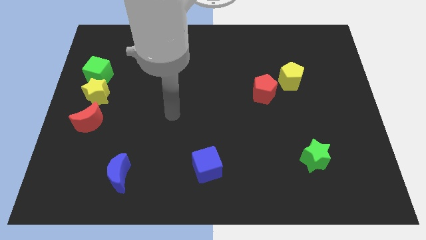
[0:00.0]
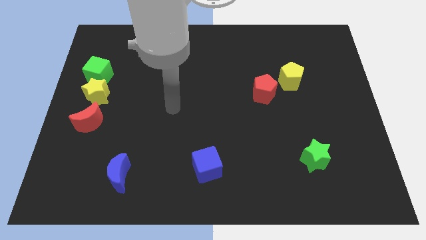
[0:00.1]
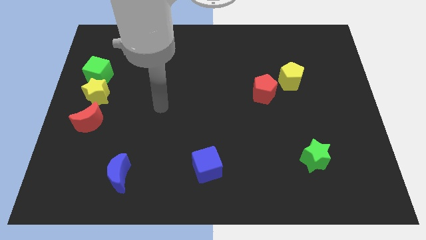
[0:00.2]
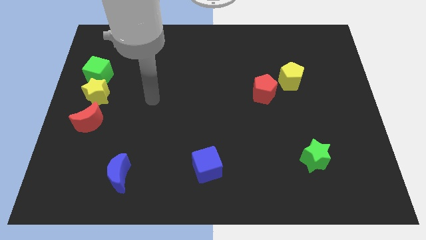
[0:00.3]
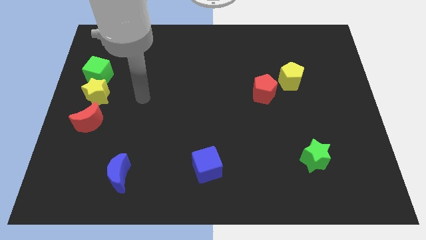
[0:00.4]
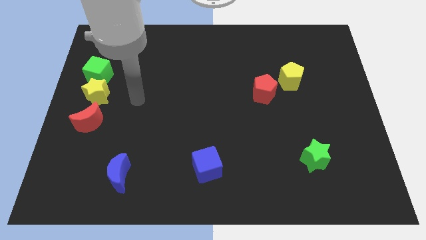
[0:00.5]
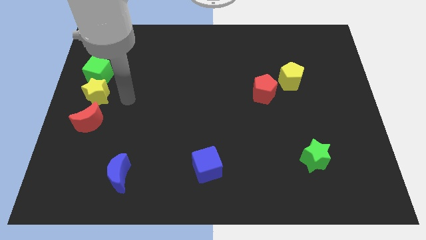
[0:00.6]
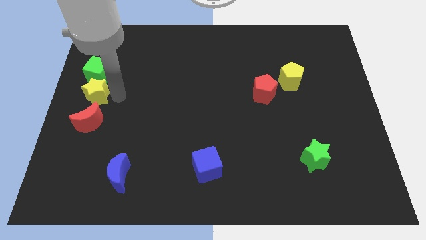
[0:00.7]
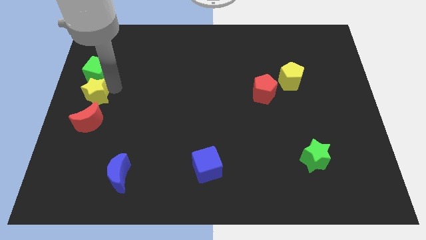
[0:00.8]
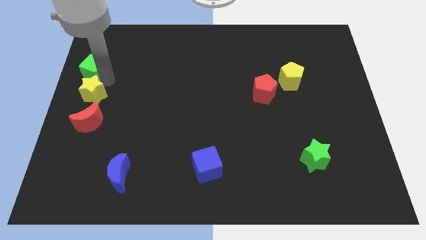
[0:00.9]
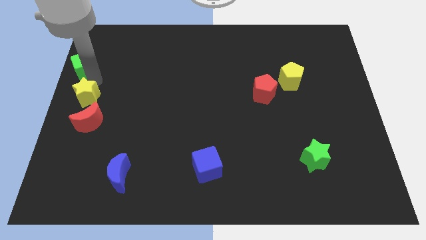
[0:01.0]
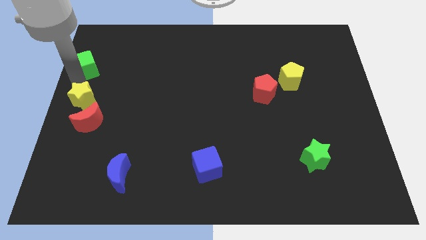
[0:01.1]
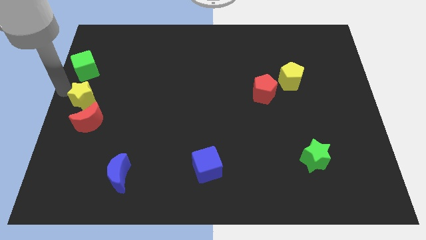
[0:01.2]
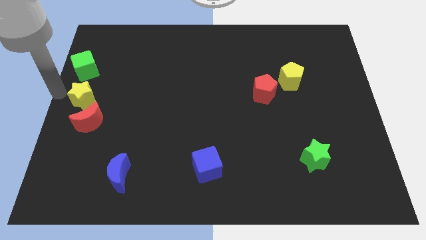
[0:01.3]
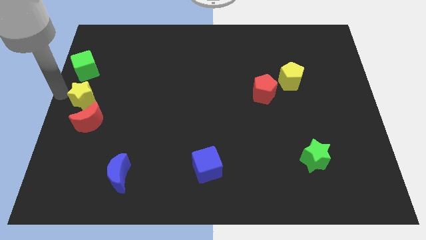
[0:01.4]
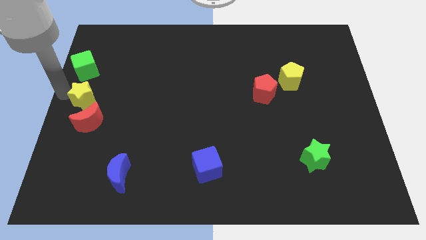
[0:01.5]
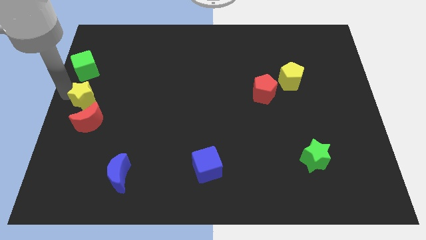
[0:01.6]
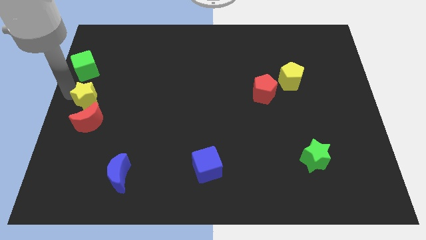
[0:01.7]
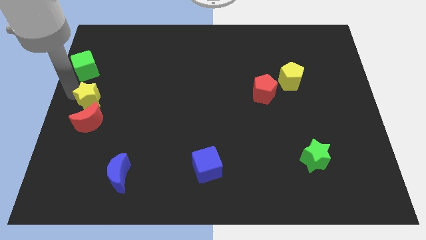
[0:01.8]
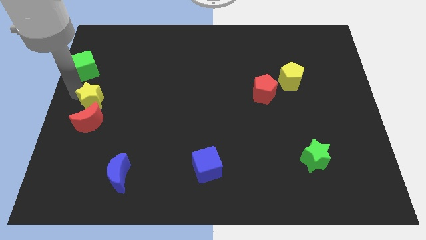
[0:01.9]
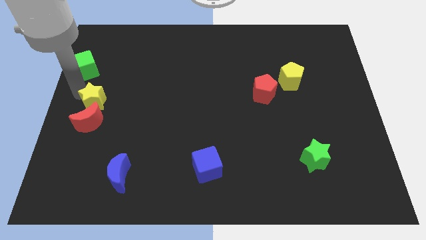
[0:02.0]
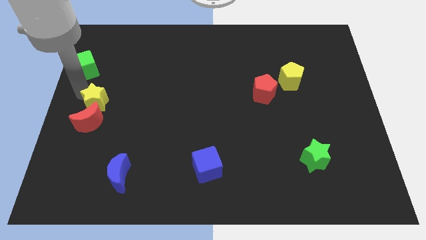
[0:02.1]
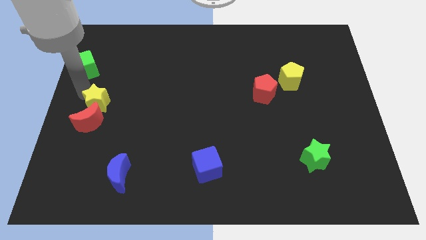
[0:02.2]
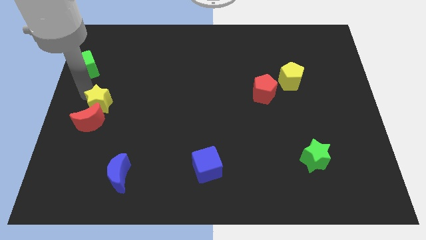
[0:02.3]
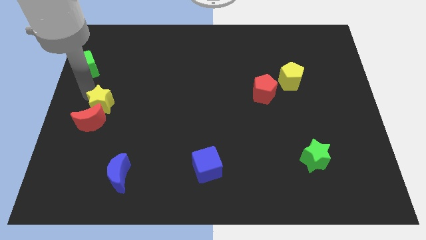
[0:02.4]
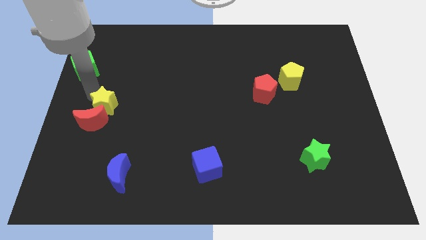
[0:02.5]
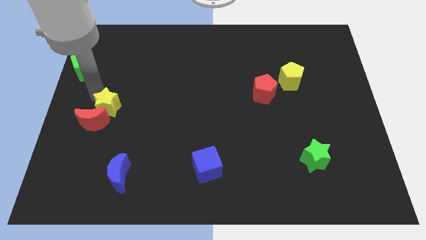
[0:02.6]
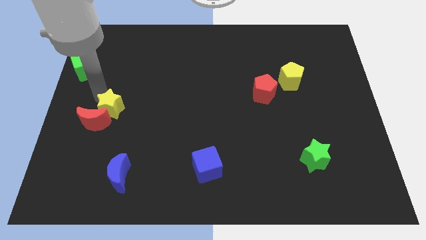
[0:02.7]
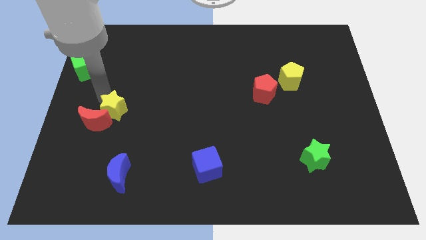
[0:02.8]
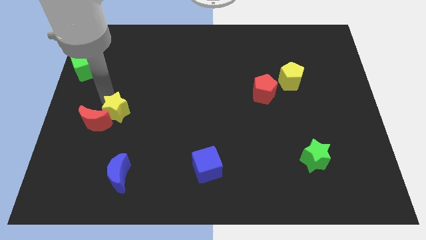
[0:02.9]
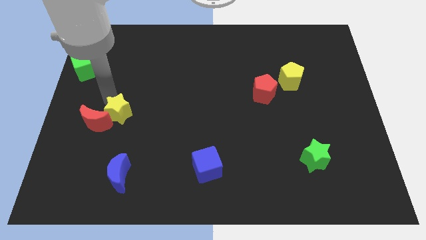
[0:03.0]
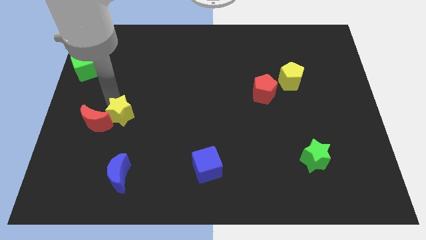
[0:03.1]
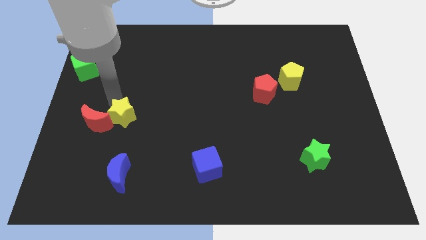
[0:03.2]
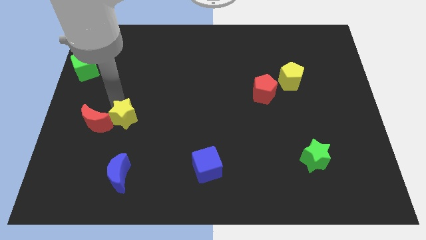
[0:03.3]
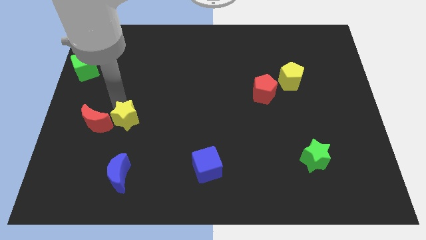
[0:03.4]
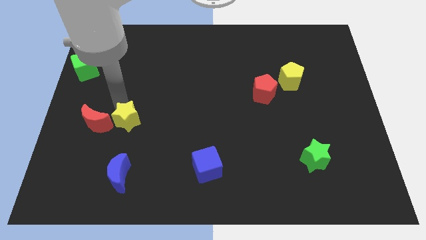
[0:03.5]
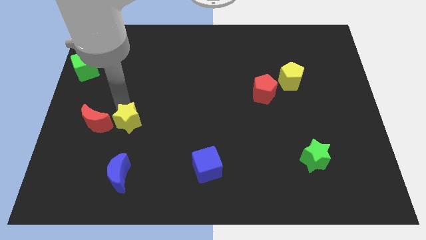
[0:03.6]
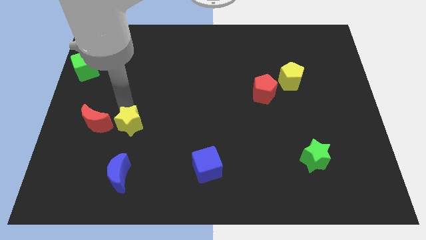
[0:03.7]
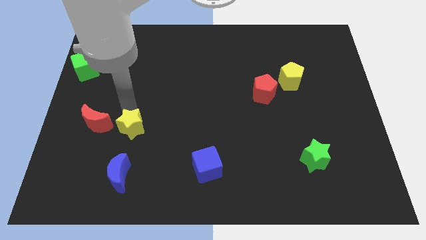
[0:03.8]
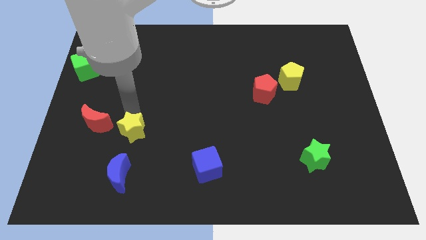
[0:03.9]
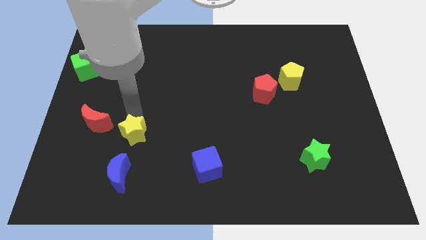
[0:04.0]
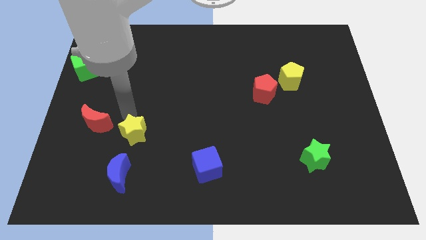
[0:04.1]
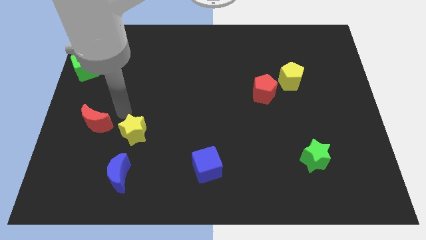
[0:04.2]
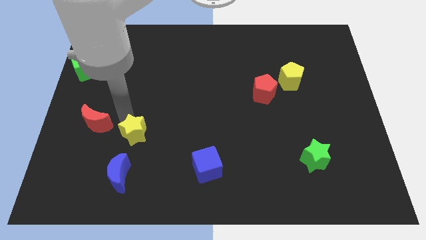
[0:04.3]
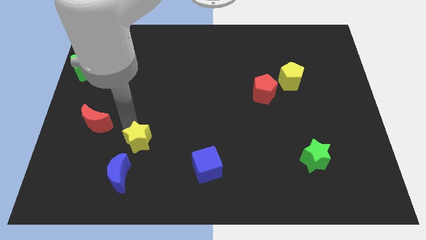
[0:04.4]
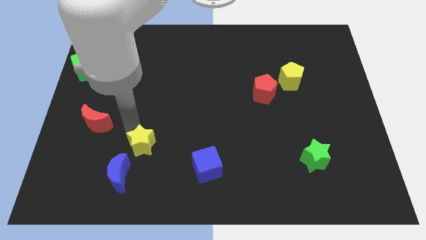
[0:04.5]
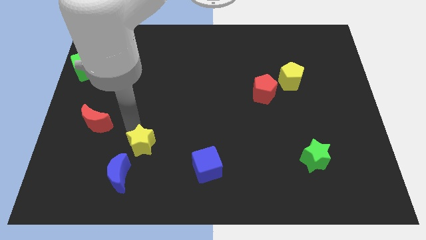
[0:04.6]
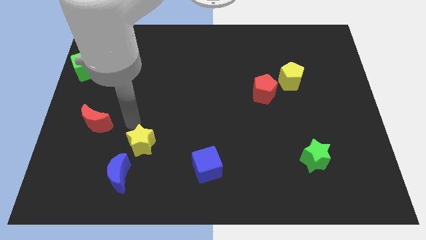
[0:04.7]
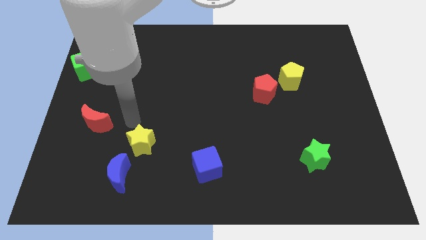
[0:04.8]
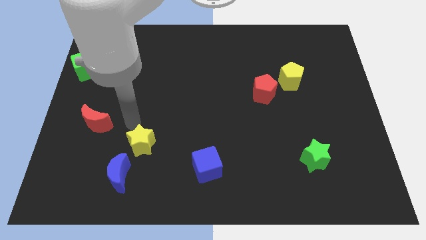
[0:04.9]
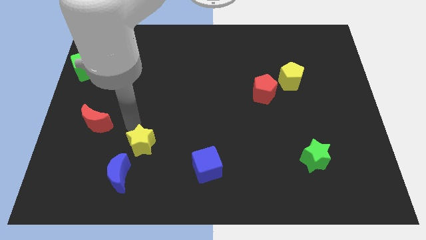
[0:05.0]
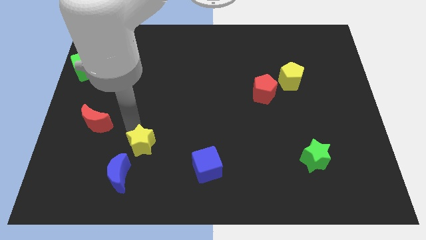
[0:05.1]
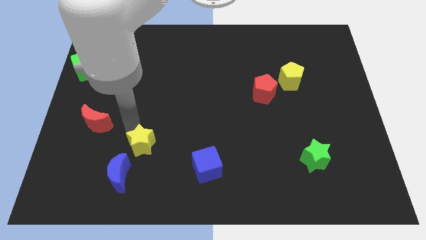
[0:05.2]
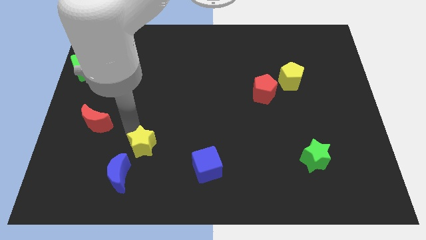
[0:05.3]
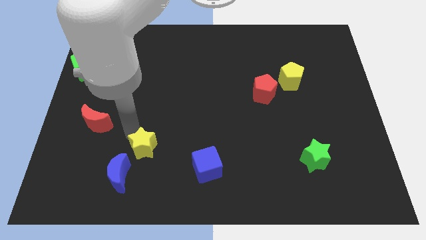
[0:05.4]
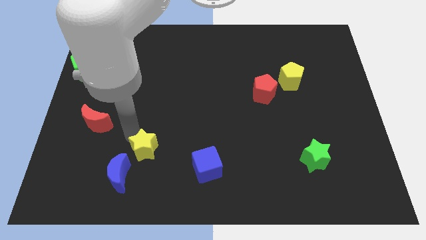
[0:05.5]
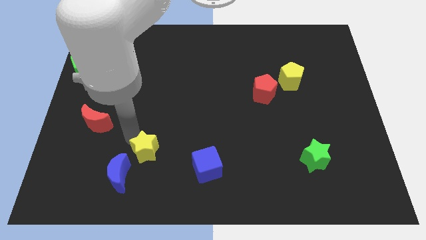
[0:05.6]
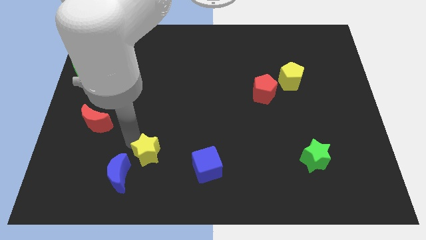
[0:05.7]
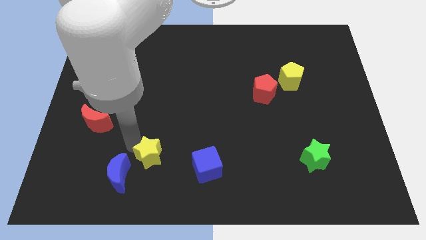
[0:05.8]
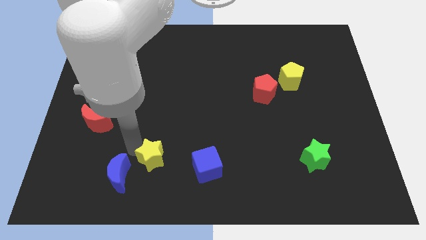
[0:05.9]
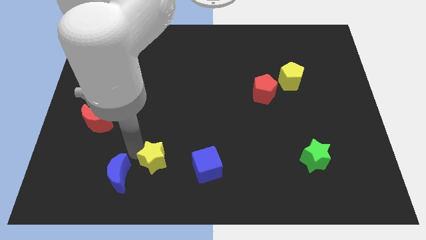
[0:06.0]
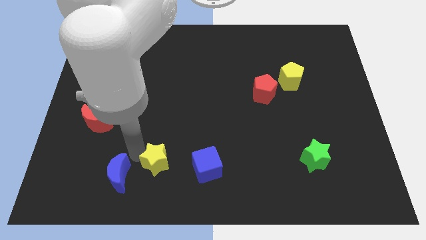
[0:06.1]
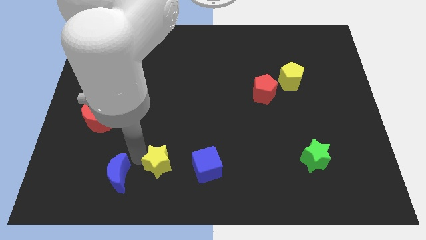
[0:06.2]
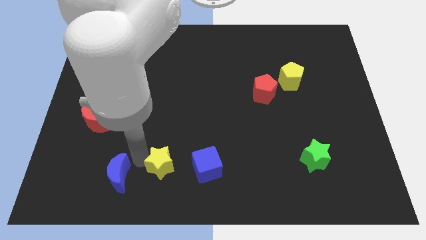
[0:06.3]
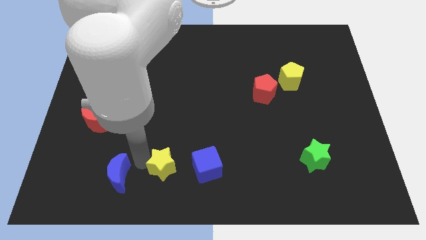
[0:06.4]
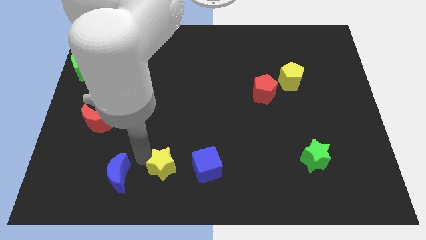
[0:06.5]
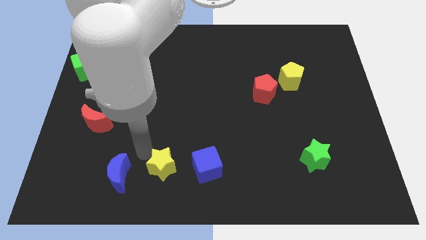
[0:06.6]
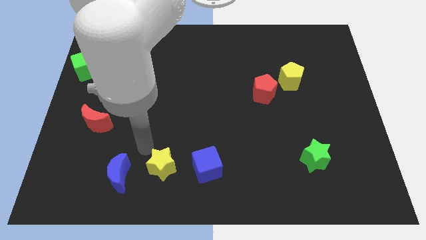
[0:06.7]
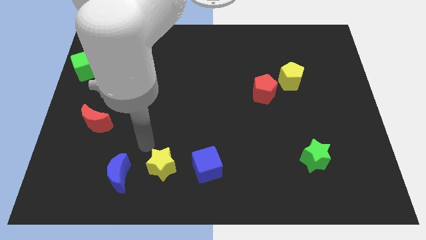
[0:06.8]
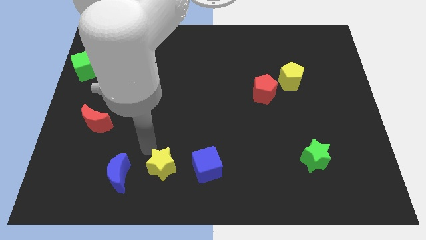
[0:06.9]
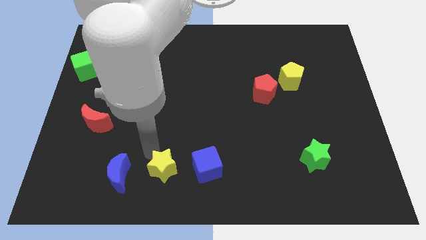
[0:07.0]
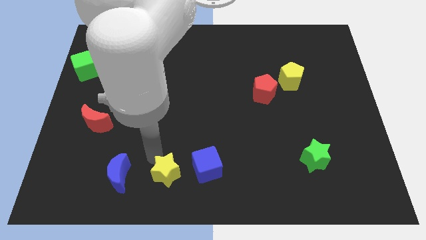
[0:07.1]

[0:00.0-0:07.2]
push the yellow star to the bottom
